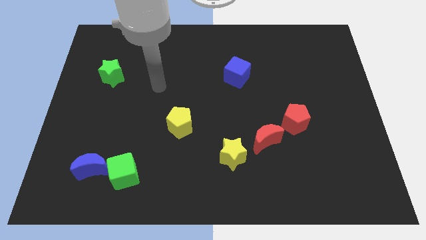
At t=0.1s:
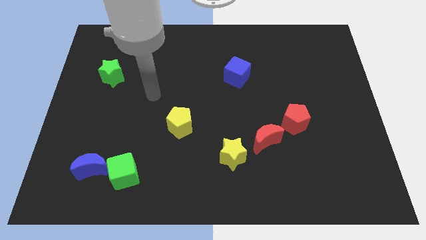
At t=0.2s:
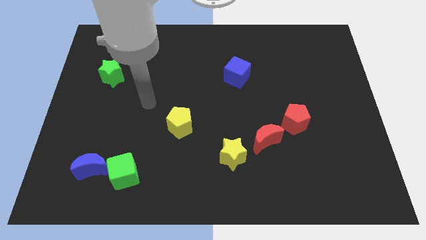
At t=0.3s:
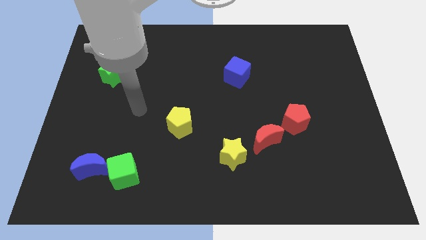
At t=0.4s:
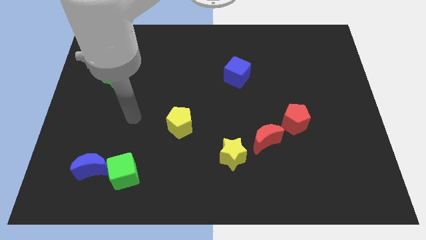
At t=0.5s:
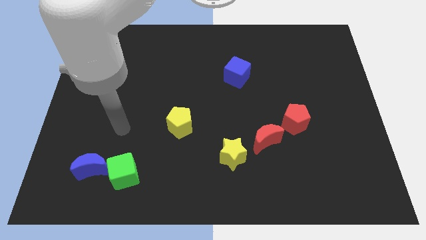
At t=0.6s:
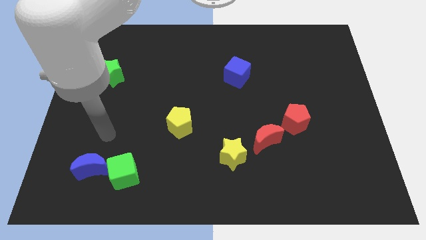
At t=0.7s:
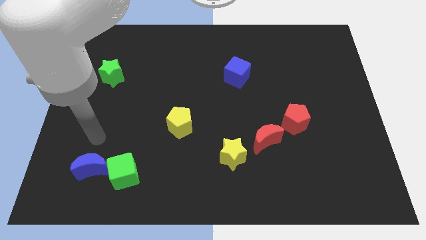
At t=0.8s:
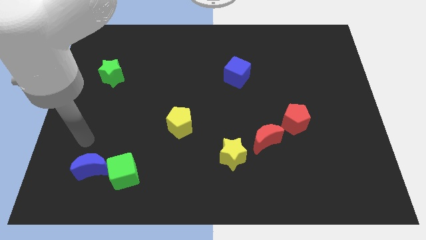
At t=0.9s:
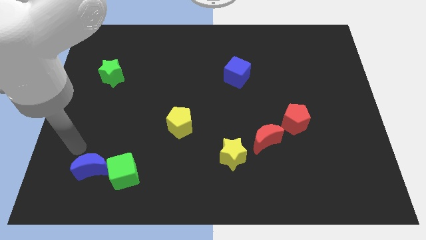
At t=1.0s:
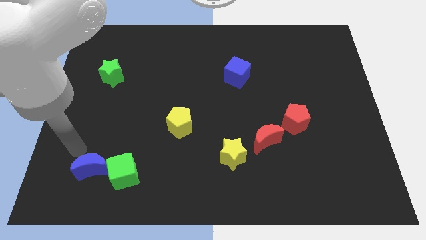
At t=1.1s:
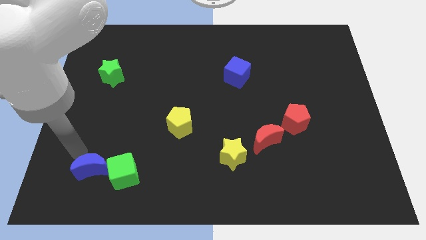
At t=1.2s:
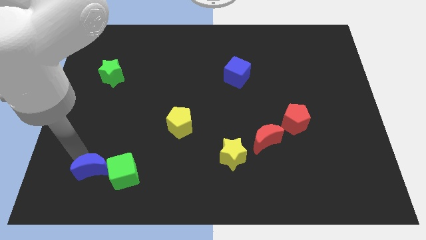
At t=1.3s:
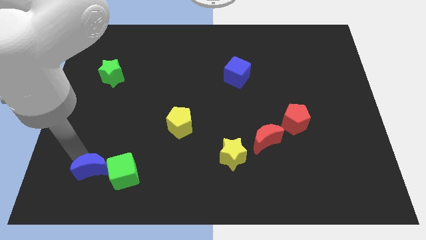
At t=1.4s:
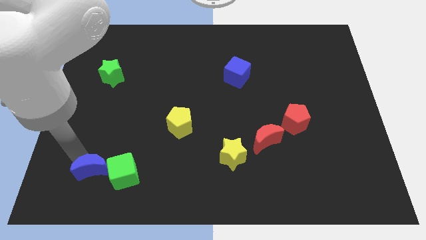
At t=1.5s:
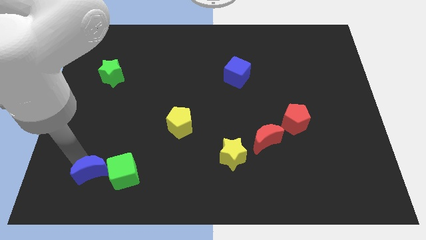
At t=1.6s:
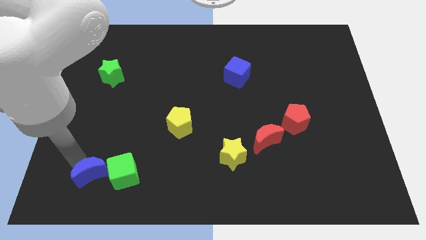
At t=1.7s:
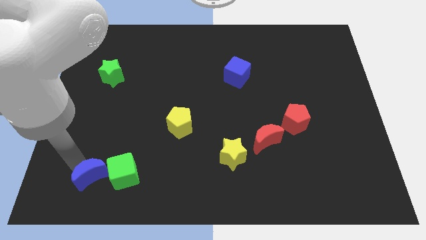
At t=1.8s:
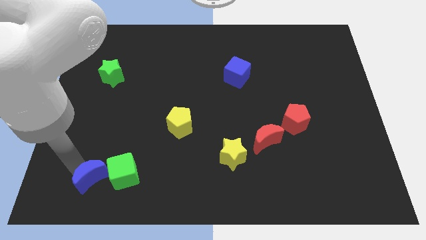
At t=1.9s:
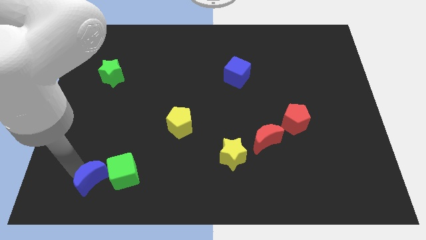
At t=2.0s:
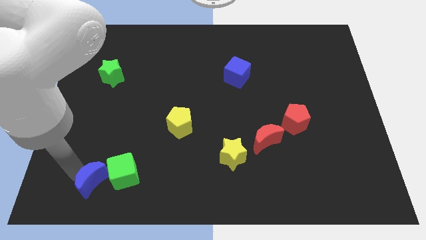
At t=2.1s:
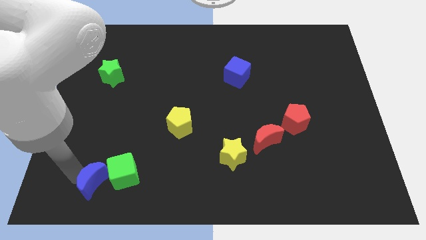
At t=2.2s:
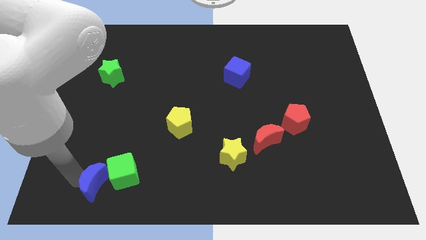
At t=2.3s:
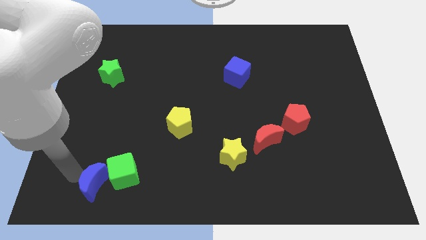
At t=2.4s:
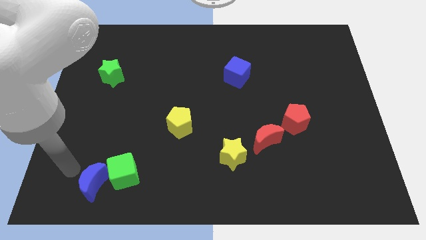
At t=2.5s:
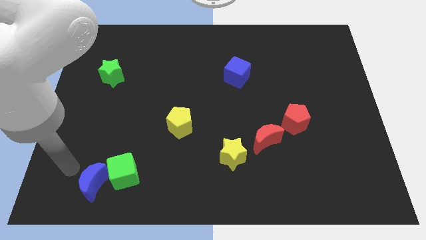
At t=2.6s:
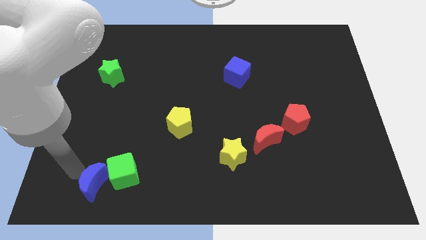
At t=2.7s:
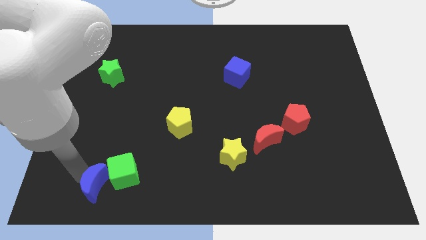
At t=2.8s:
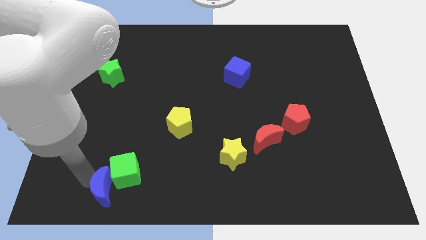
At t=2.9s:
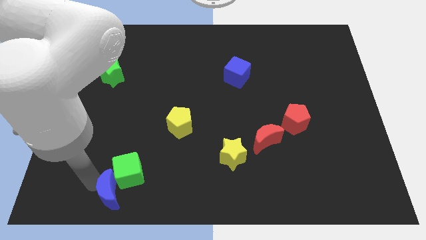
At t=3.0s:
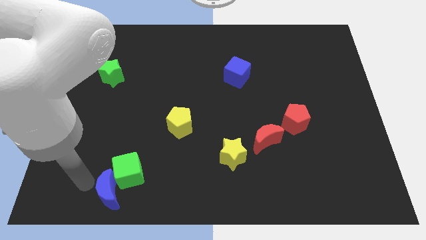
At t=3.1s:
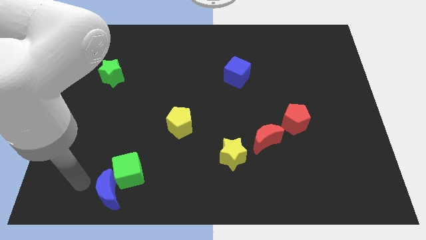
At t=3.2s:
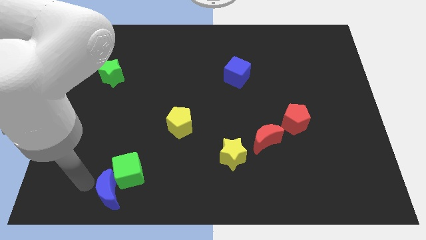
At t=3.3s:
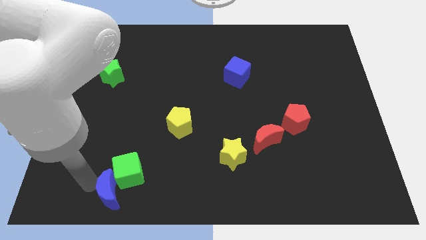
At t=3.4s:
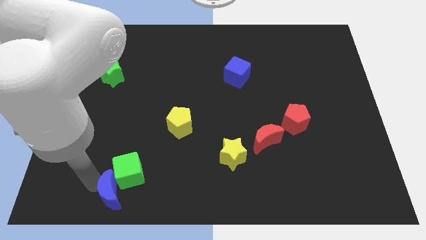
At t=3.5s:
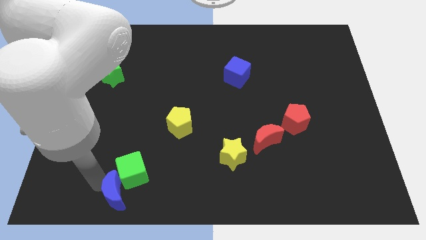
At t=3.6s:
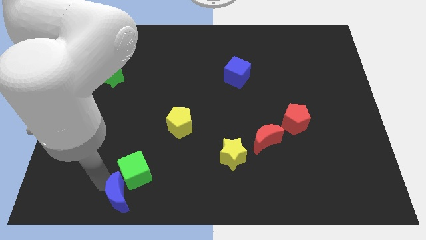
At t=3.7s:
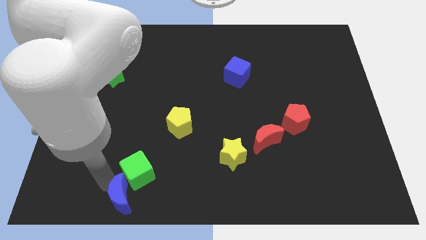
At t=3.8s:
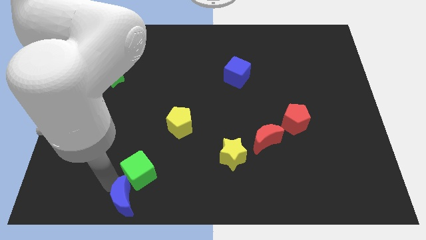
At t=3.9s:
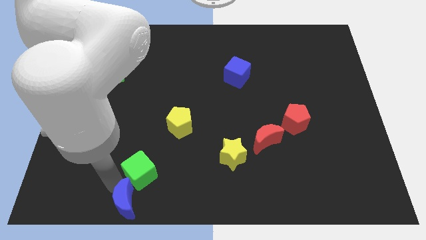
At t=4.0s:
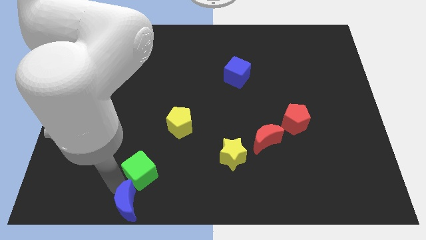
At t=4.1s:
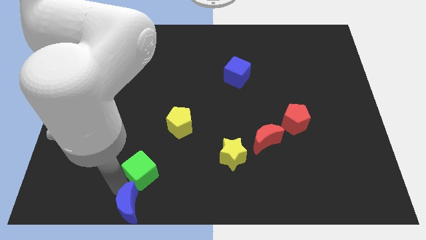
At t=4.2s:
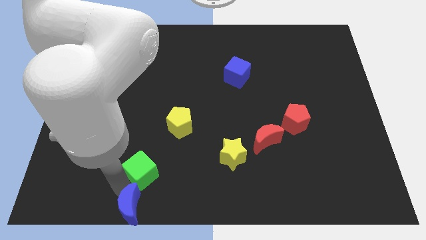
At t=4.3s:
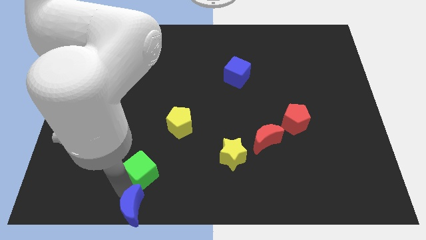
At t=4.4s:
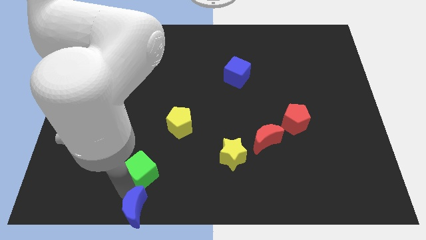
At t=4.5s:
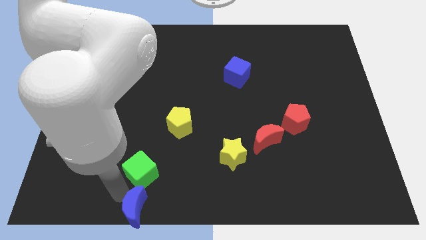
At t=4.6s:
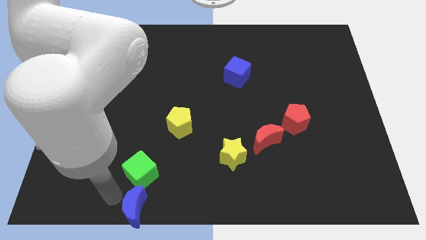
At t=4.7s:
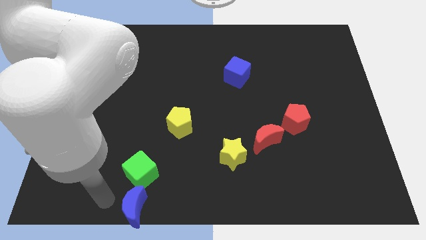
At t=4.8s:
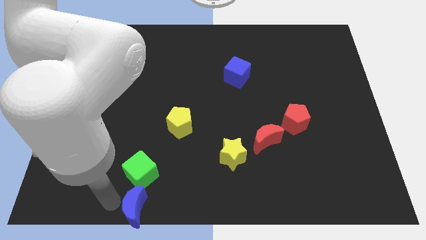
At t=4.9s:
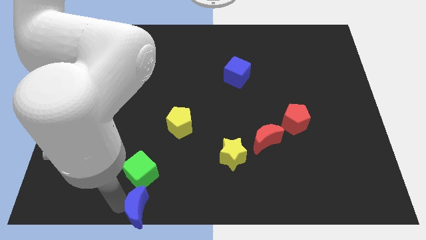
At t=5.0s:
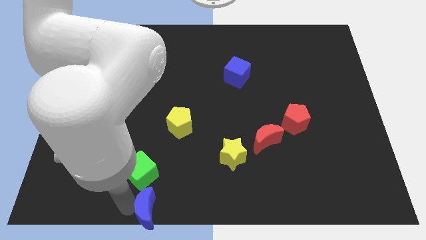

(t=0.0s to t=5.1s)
move the blue moon to the bottom

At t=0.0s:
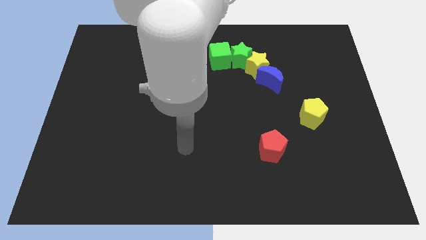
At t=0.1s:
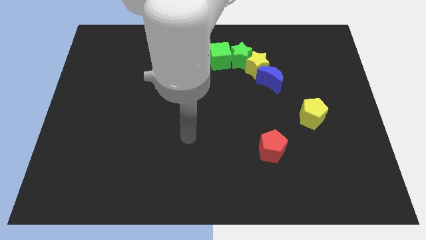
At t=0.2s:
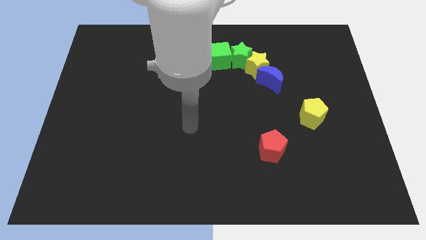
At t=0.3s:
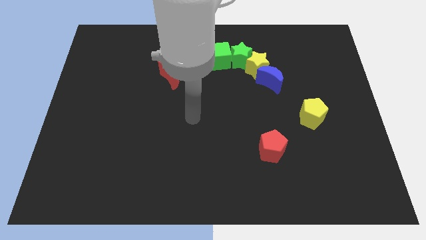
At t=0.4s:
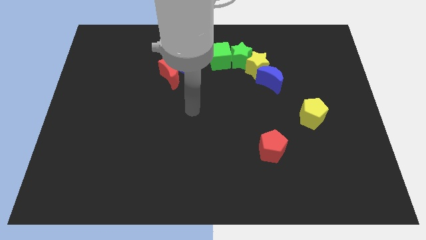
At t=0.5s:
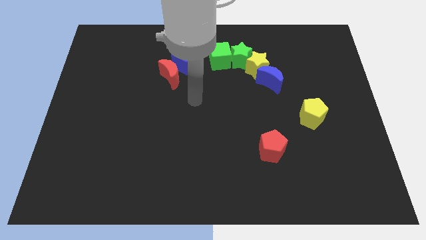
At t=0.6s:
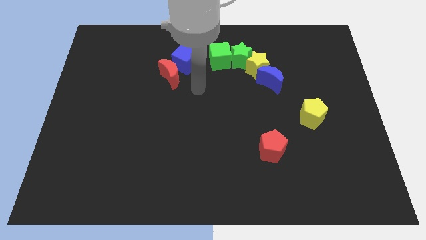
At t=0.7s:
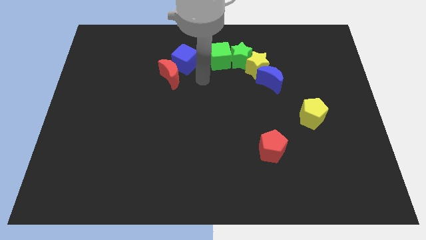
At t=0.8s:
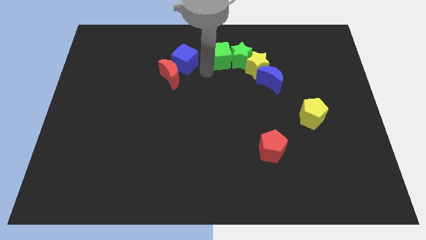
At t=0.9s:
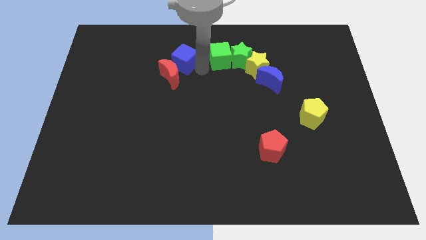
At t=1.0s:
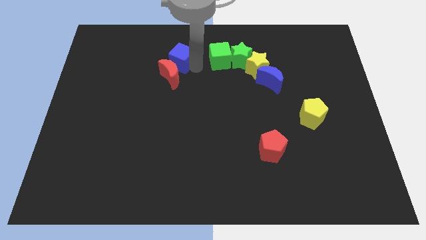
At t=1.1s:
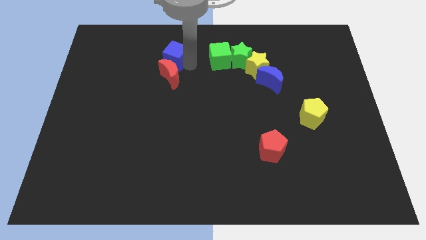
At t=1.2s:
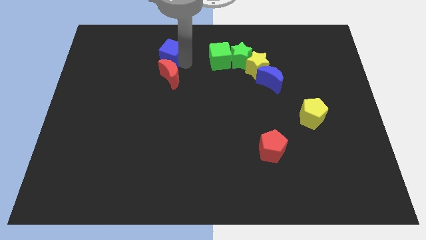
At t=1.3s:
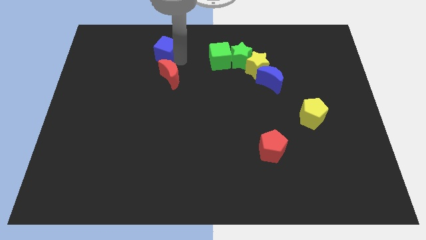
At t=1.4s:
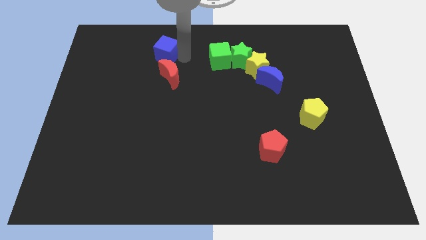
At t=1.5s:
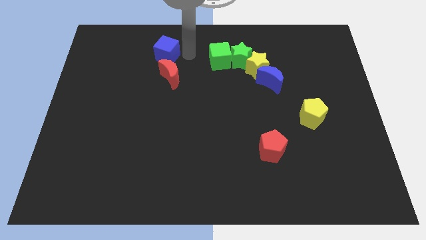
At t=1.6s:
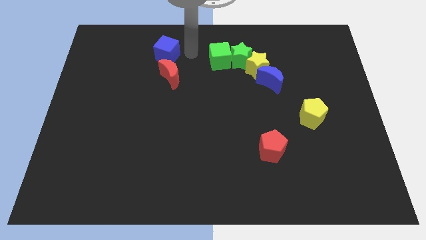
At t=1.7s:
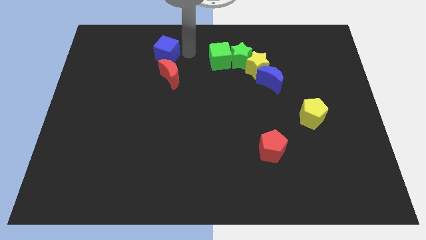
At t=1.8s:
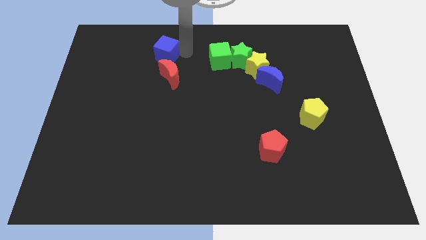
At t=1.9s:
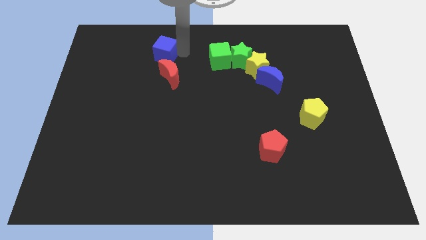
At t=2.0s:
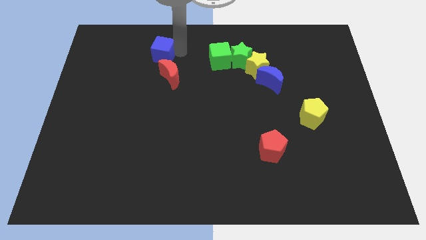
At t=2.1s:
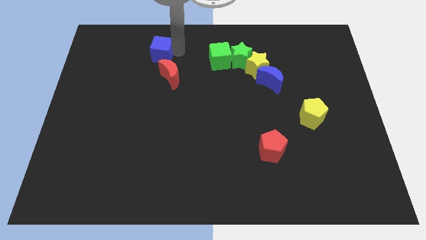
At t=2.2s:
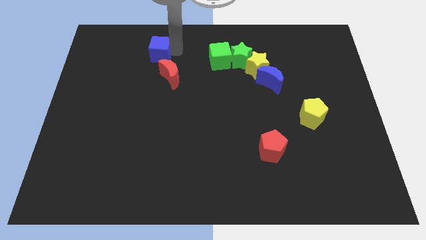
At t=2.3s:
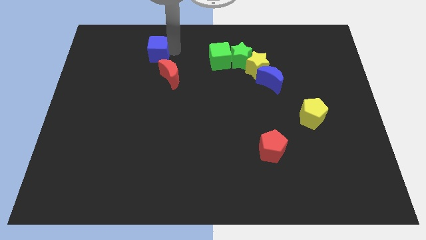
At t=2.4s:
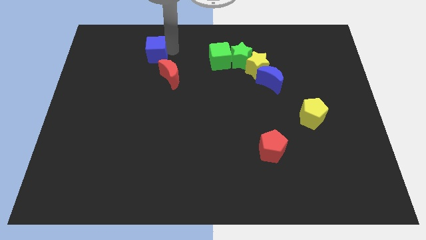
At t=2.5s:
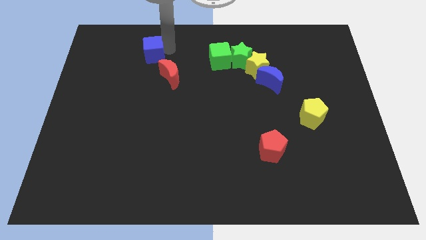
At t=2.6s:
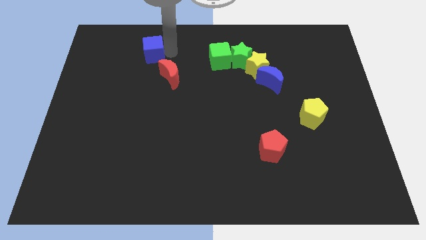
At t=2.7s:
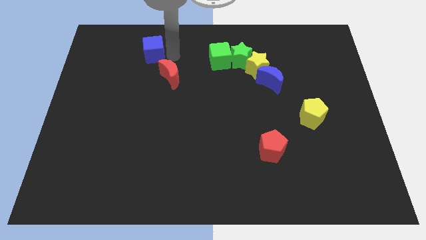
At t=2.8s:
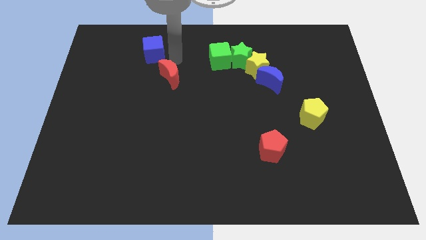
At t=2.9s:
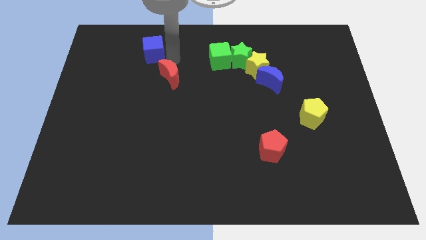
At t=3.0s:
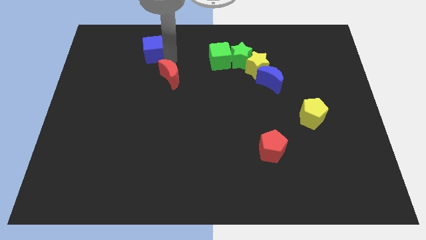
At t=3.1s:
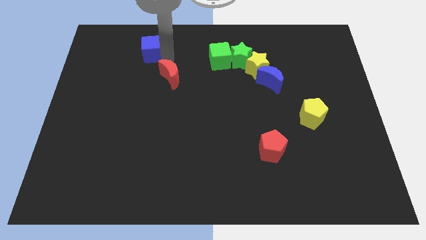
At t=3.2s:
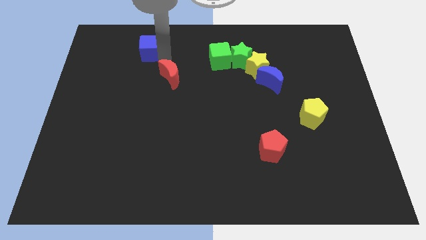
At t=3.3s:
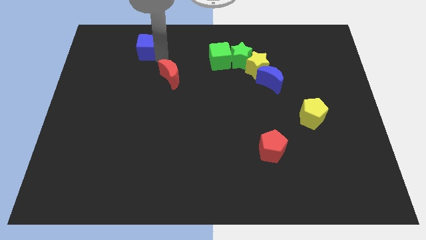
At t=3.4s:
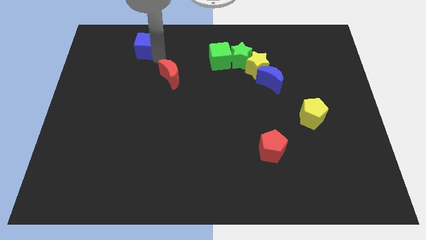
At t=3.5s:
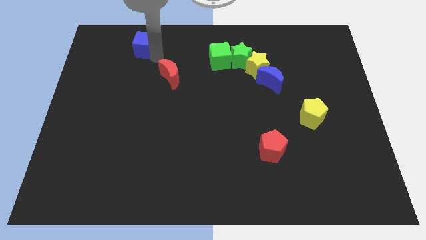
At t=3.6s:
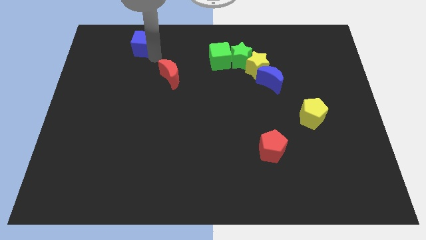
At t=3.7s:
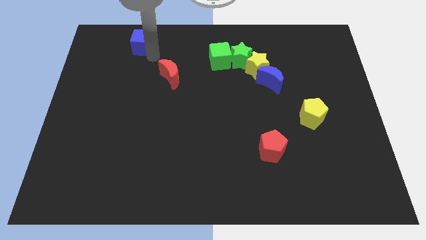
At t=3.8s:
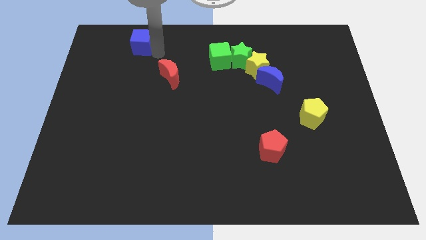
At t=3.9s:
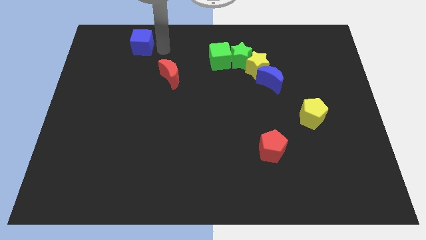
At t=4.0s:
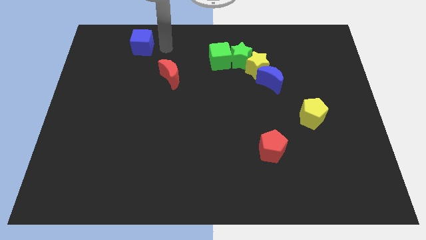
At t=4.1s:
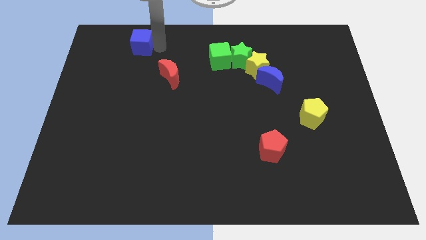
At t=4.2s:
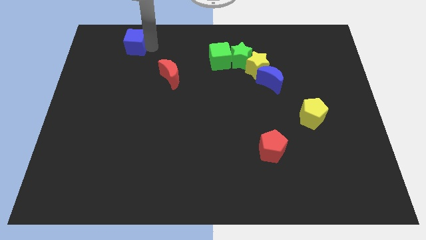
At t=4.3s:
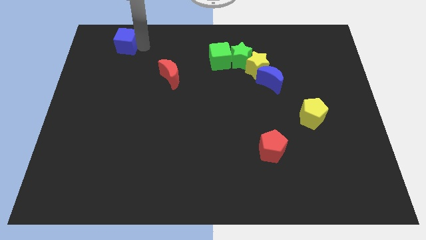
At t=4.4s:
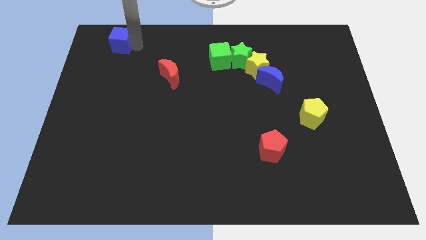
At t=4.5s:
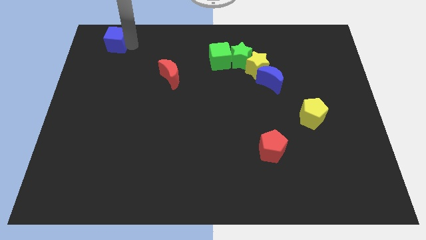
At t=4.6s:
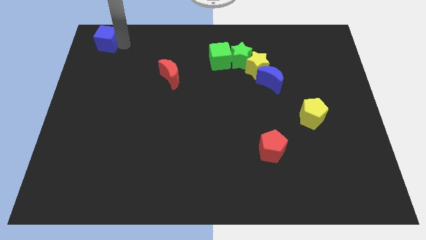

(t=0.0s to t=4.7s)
put the blue cube to the top left corner
